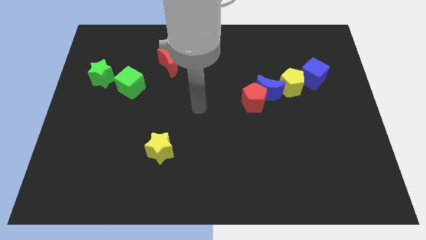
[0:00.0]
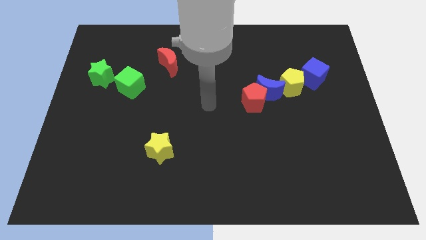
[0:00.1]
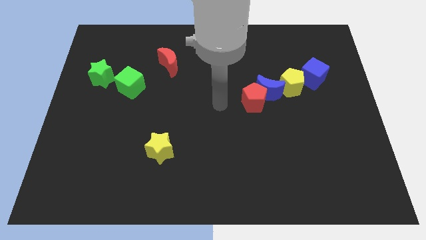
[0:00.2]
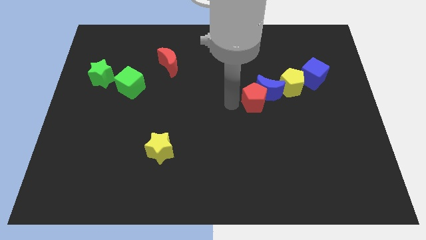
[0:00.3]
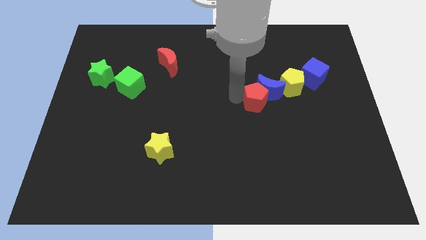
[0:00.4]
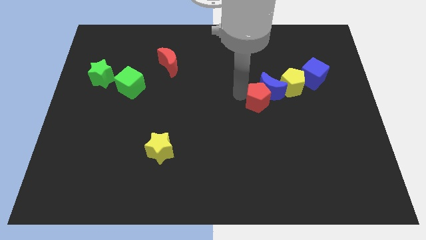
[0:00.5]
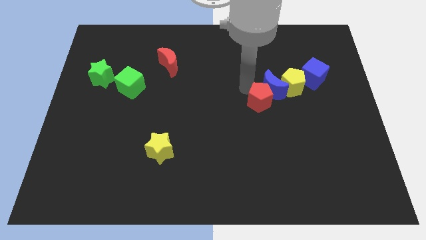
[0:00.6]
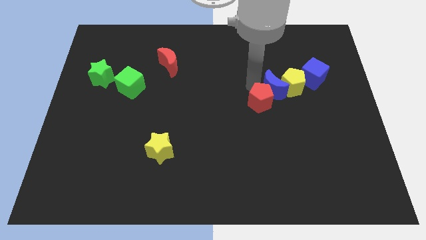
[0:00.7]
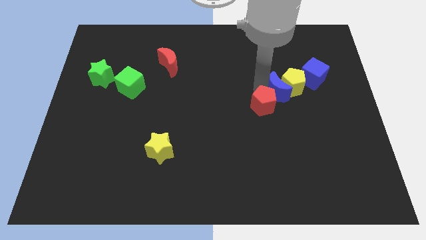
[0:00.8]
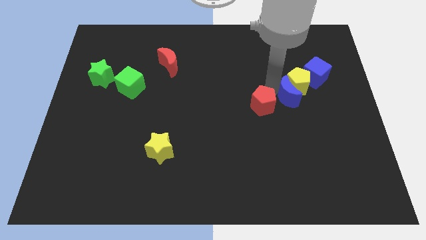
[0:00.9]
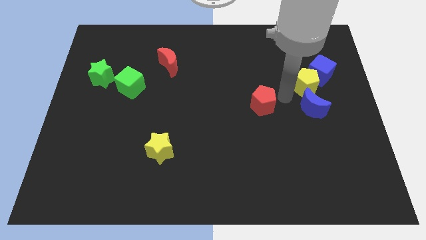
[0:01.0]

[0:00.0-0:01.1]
move the red pentagon away from the blue moon

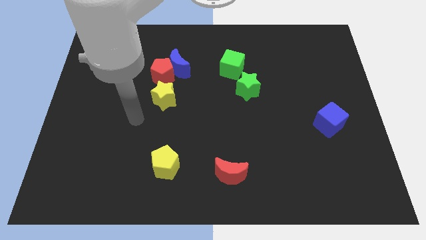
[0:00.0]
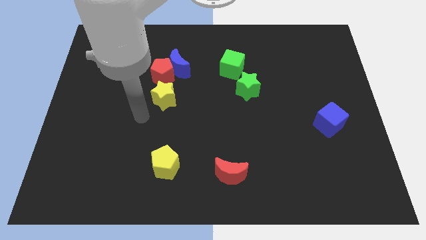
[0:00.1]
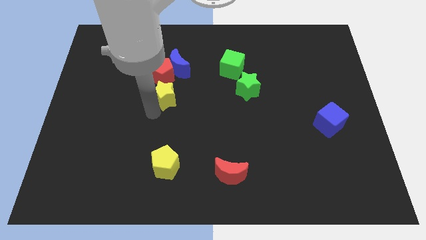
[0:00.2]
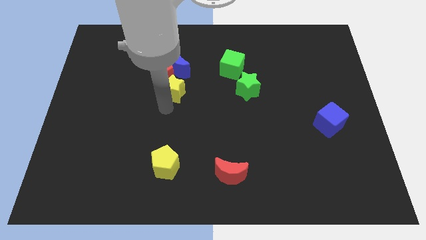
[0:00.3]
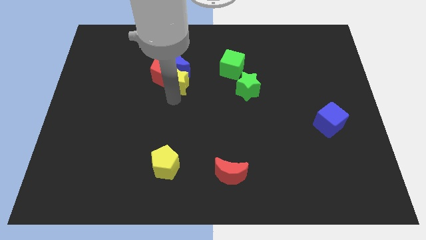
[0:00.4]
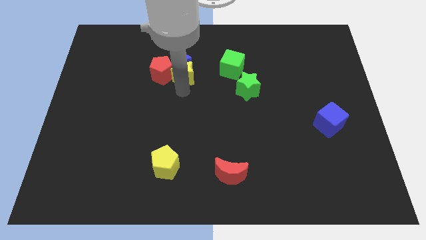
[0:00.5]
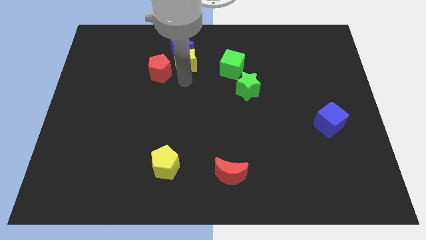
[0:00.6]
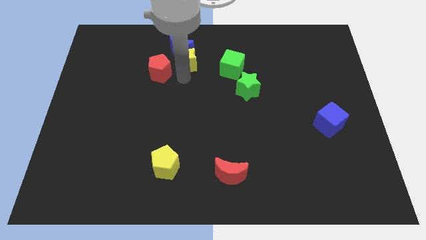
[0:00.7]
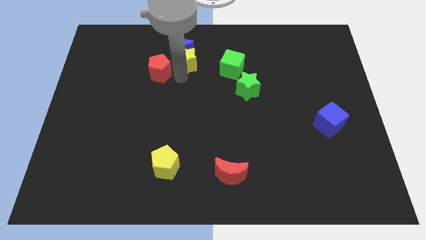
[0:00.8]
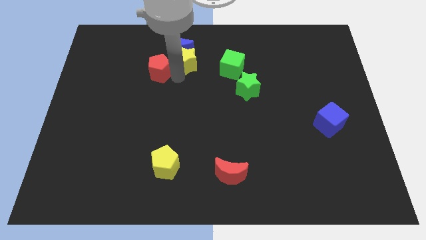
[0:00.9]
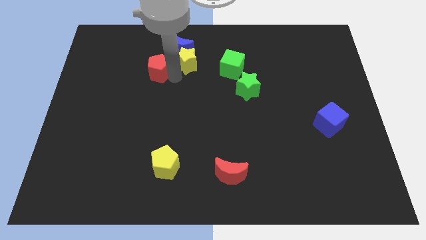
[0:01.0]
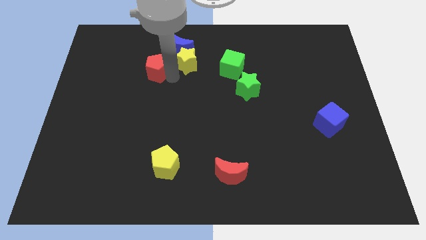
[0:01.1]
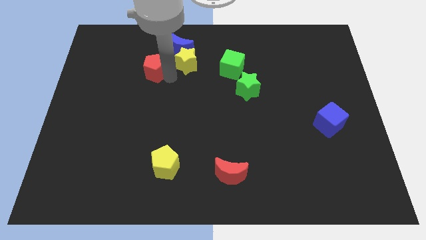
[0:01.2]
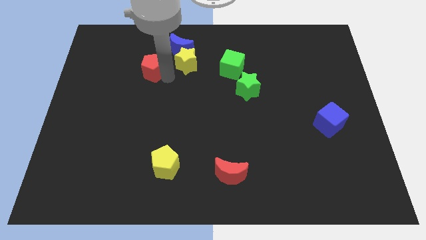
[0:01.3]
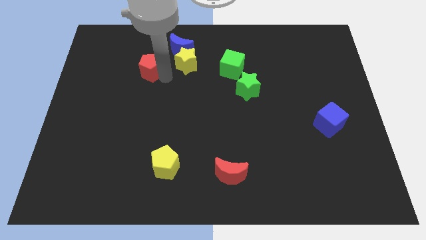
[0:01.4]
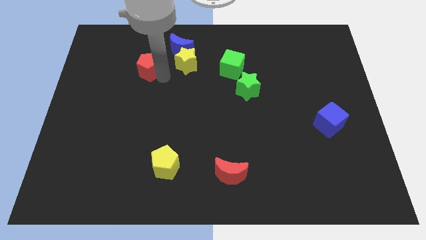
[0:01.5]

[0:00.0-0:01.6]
pull the red pentagon apart from the blue moon and yellow star

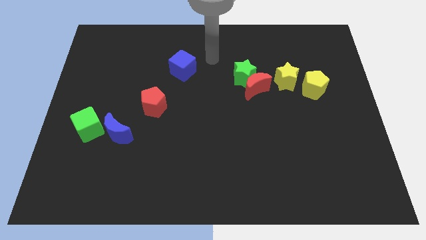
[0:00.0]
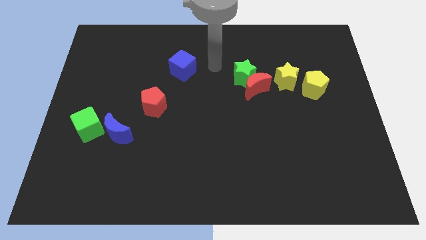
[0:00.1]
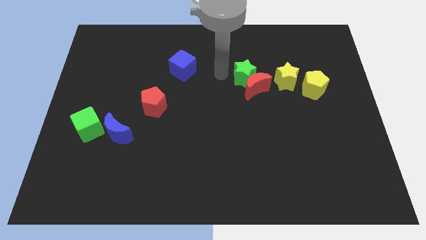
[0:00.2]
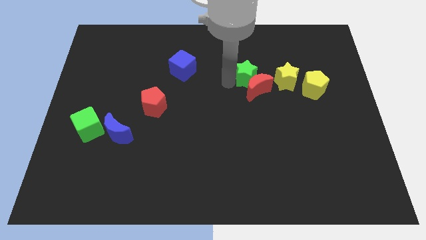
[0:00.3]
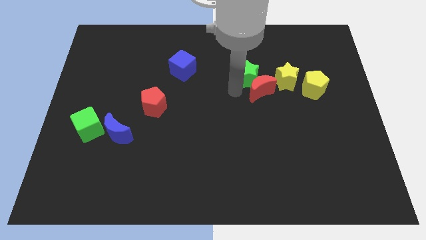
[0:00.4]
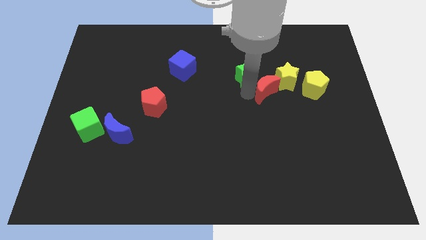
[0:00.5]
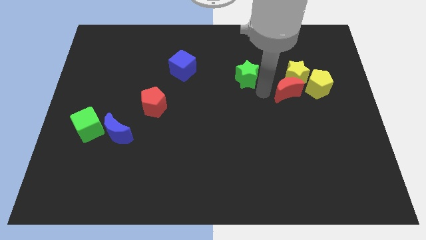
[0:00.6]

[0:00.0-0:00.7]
pull the green star apart from the red moon

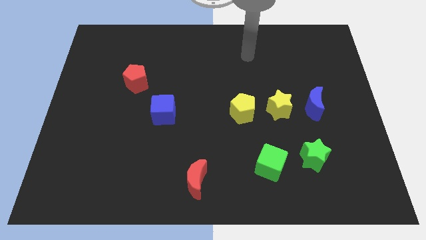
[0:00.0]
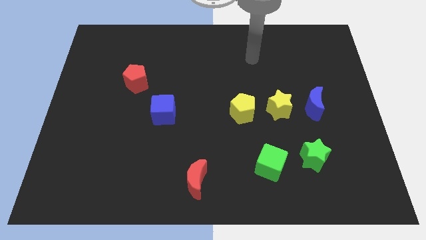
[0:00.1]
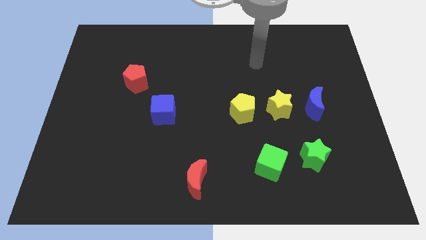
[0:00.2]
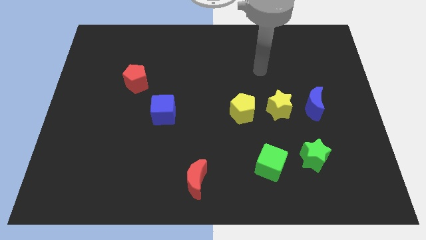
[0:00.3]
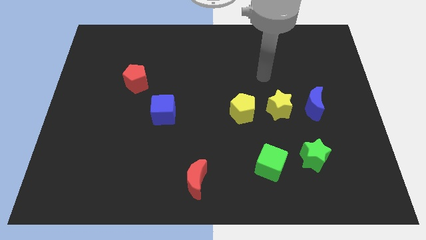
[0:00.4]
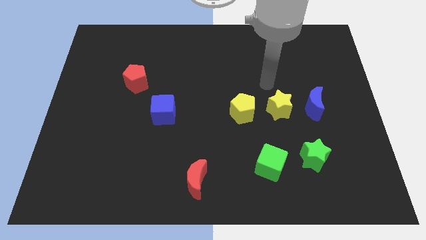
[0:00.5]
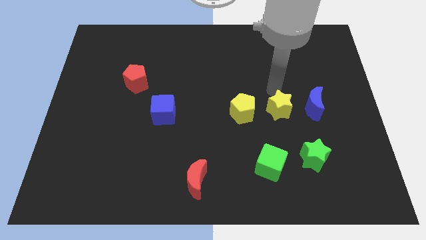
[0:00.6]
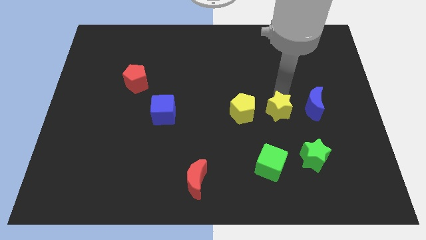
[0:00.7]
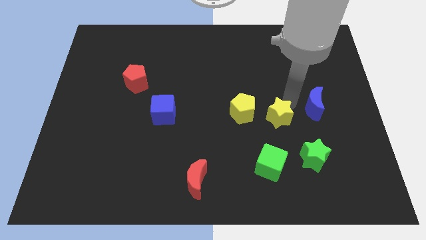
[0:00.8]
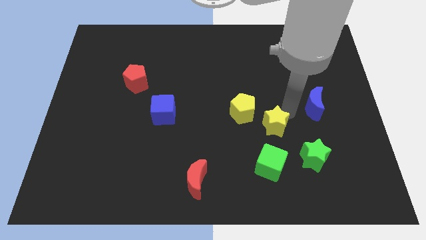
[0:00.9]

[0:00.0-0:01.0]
pull the blue moon apart from the yellow star

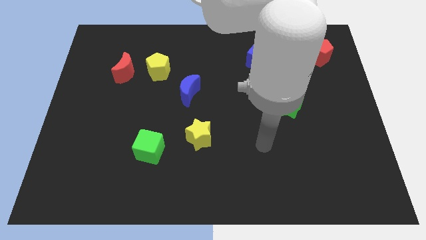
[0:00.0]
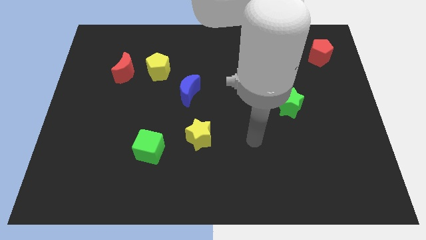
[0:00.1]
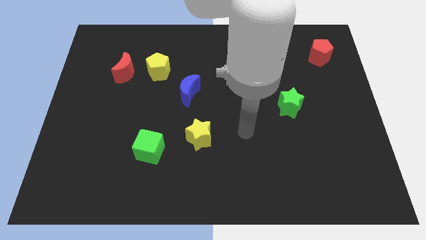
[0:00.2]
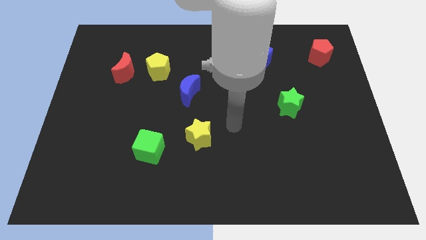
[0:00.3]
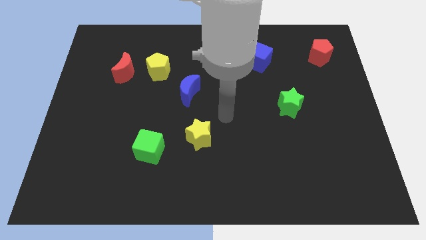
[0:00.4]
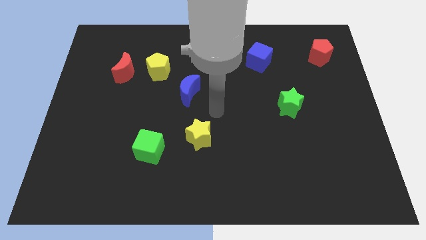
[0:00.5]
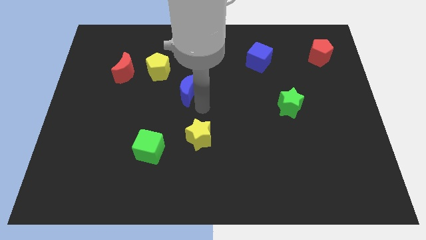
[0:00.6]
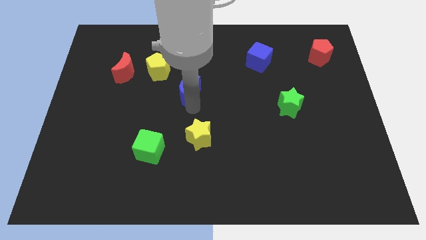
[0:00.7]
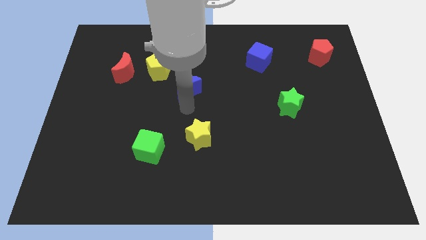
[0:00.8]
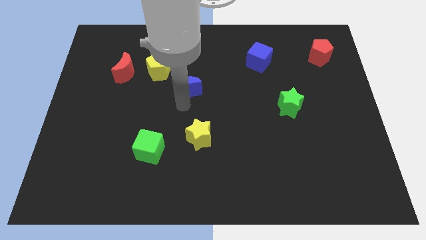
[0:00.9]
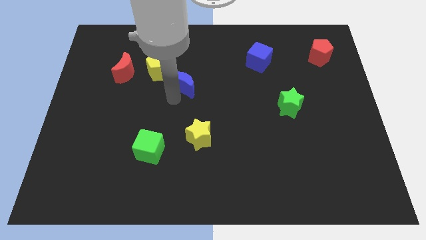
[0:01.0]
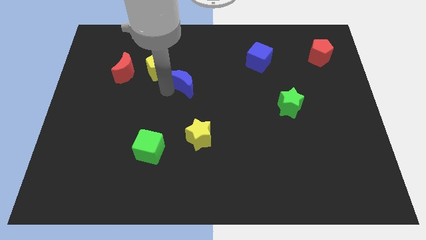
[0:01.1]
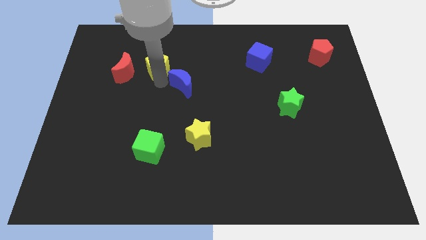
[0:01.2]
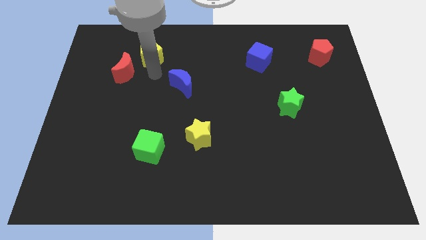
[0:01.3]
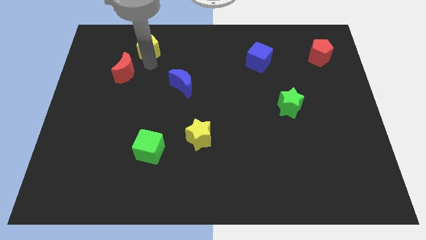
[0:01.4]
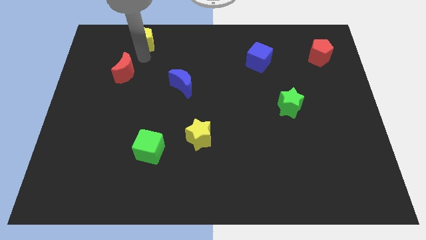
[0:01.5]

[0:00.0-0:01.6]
separate the red moon from the yellow pentagon

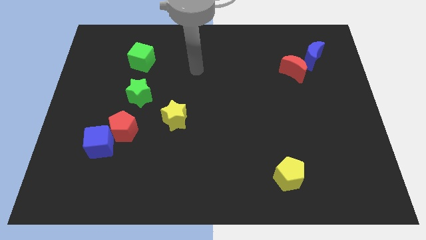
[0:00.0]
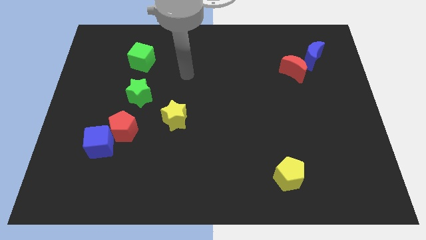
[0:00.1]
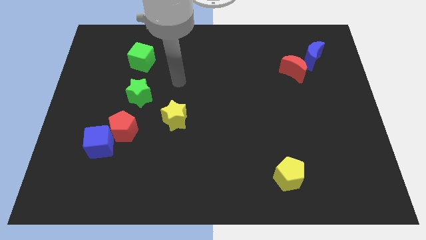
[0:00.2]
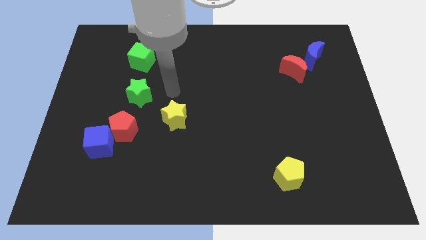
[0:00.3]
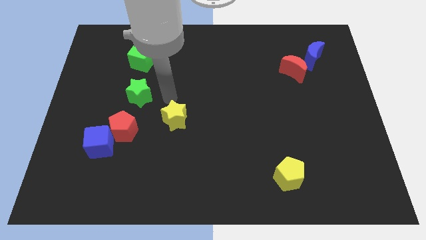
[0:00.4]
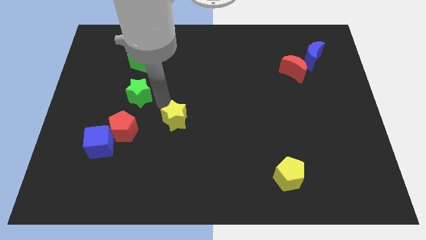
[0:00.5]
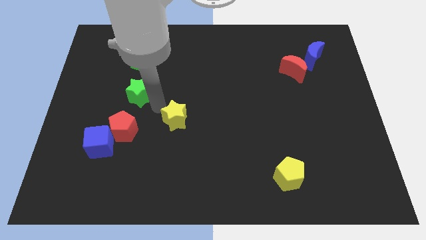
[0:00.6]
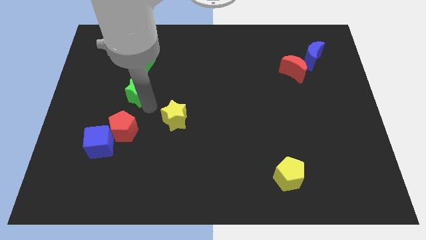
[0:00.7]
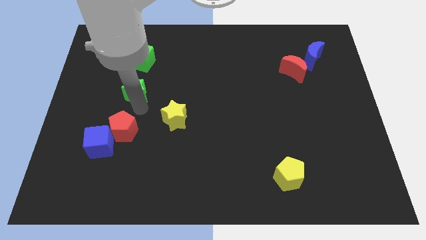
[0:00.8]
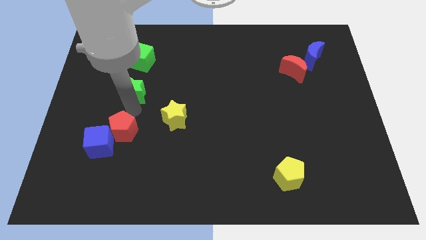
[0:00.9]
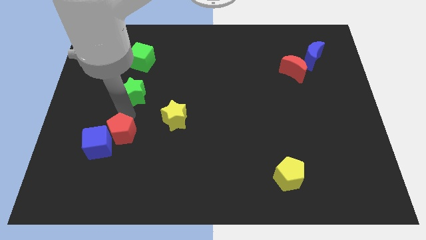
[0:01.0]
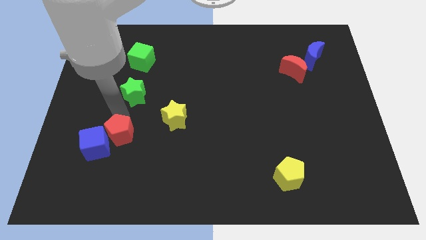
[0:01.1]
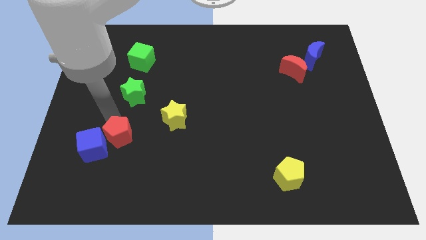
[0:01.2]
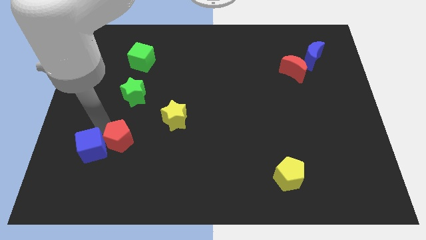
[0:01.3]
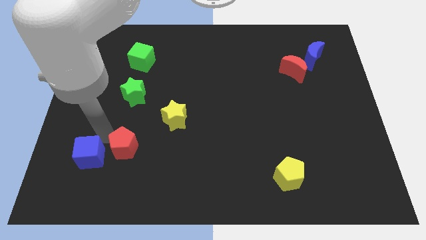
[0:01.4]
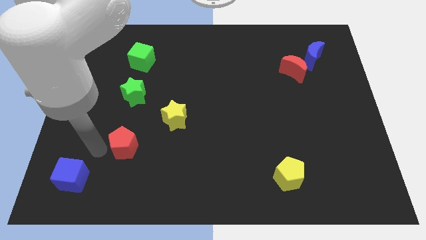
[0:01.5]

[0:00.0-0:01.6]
separate the red pentagon from the blue cube

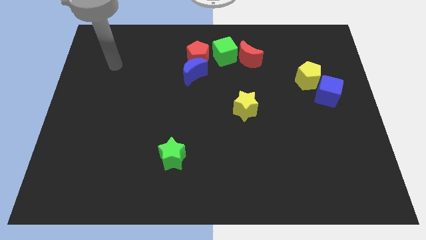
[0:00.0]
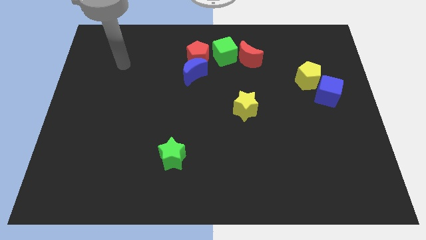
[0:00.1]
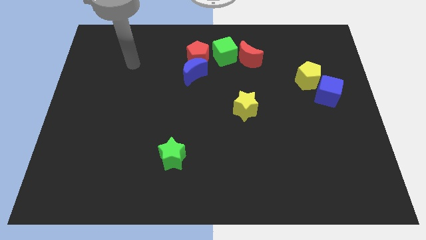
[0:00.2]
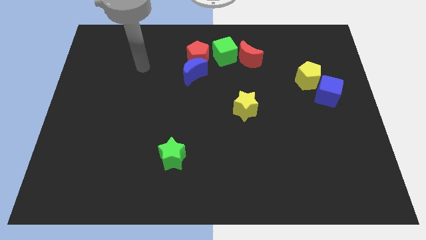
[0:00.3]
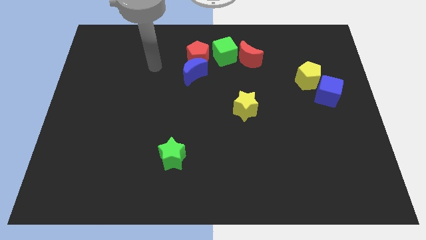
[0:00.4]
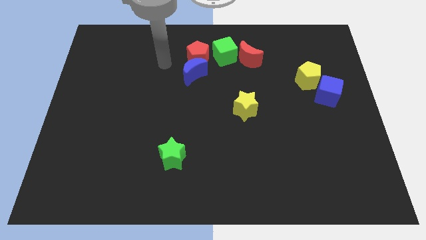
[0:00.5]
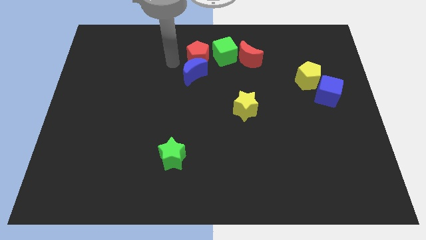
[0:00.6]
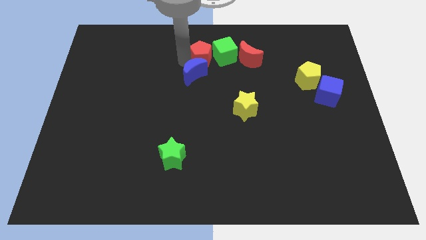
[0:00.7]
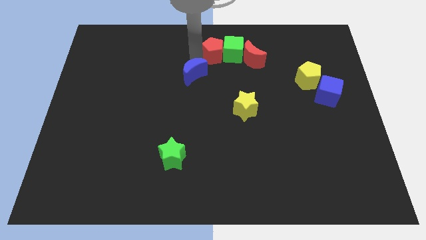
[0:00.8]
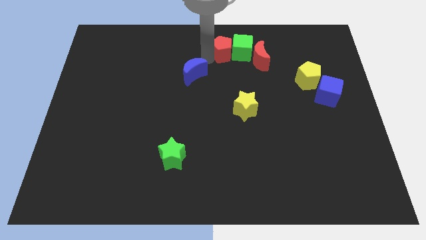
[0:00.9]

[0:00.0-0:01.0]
pull the blue moon apart from the red pentagon

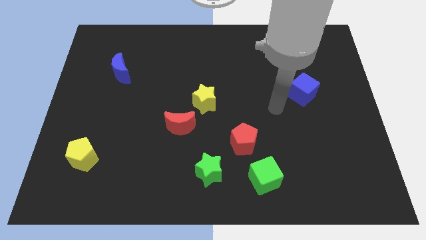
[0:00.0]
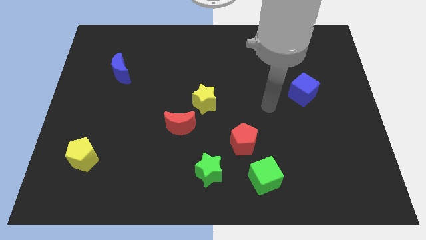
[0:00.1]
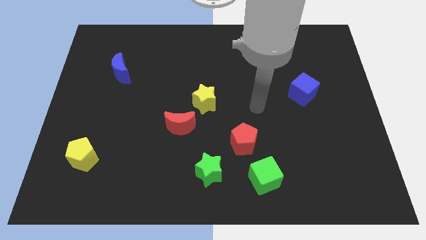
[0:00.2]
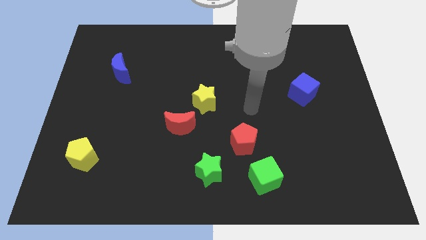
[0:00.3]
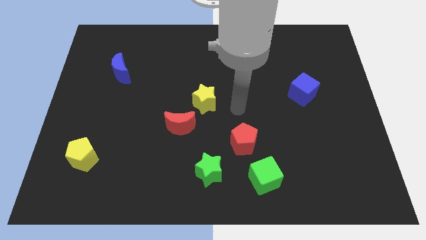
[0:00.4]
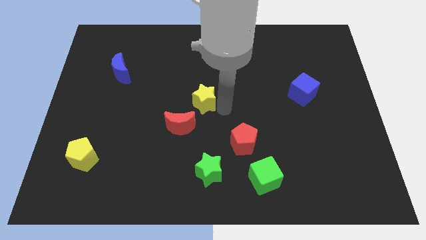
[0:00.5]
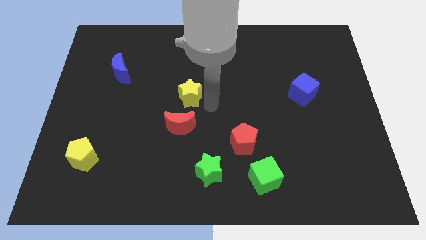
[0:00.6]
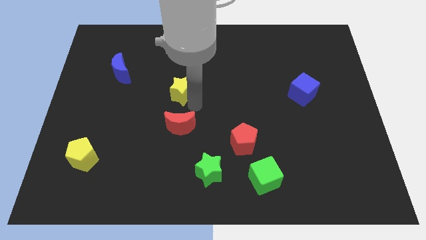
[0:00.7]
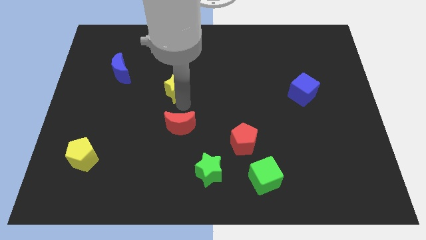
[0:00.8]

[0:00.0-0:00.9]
pull the red moon apart from the yellow star
